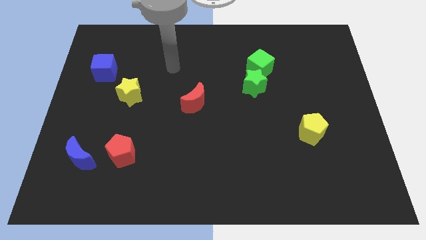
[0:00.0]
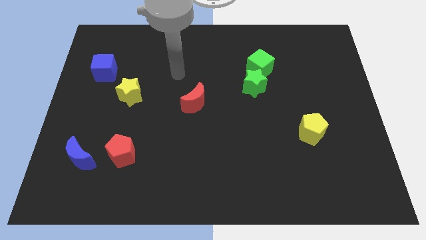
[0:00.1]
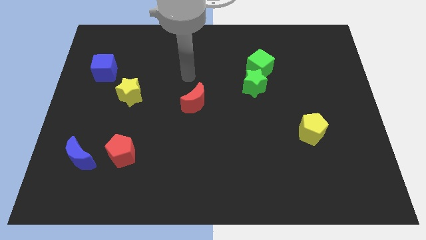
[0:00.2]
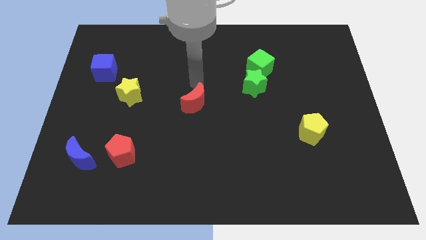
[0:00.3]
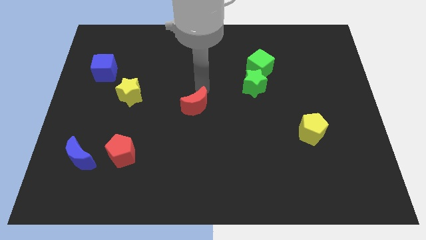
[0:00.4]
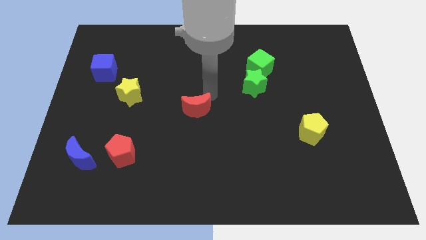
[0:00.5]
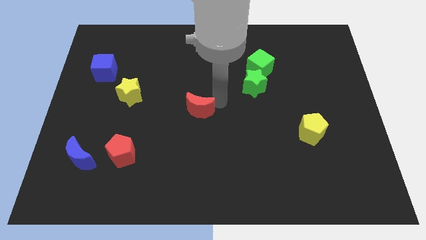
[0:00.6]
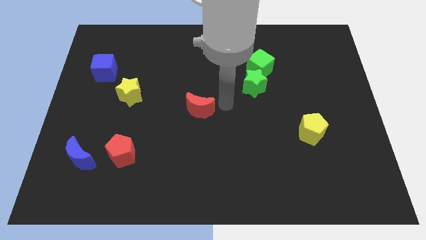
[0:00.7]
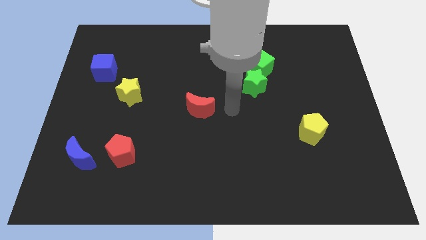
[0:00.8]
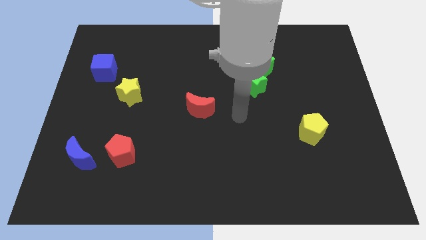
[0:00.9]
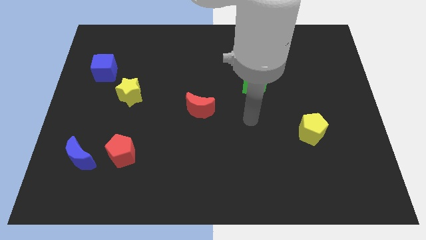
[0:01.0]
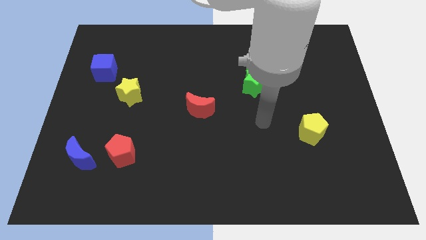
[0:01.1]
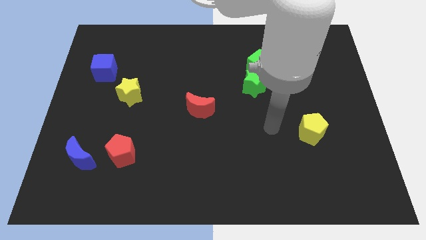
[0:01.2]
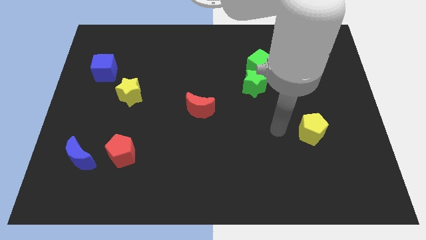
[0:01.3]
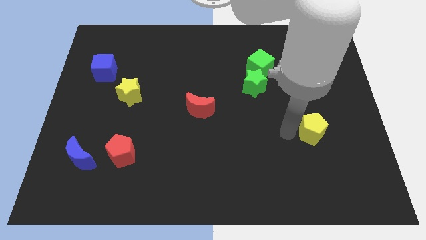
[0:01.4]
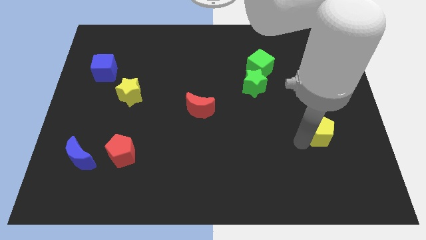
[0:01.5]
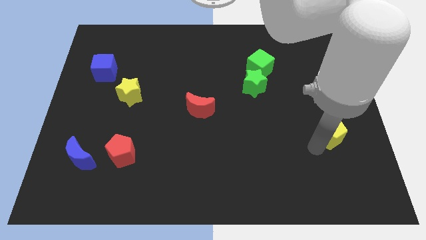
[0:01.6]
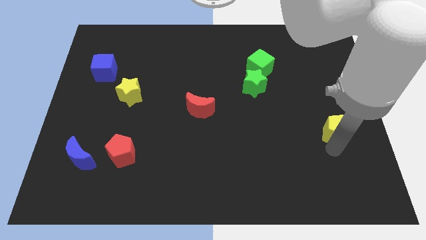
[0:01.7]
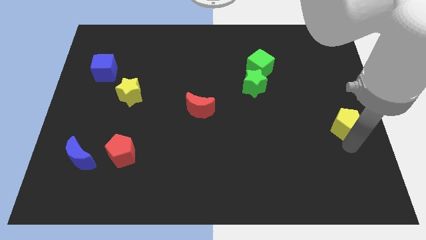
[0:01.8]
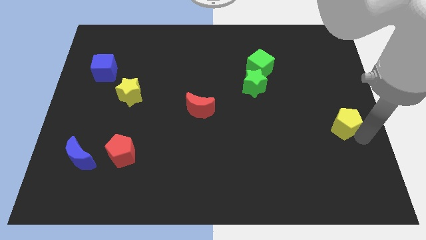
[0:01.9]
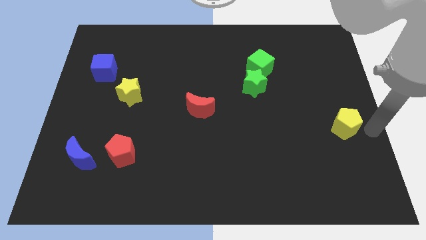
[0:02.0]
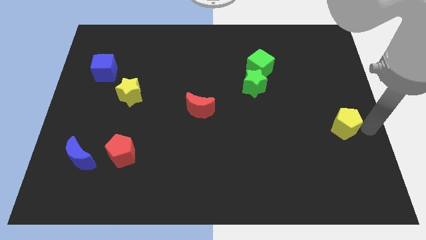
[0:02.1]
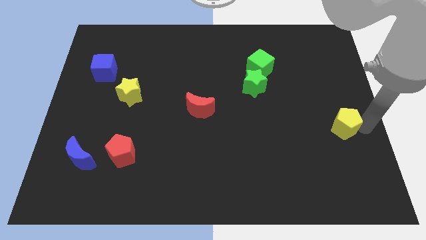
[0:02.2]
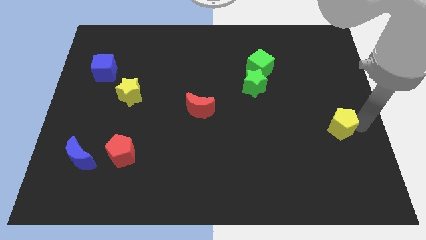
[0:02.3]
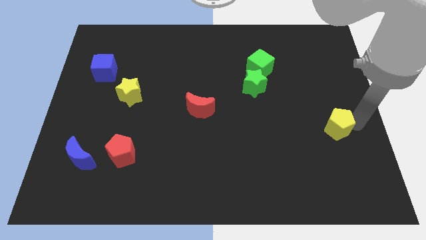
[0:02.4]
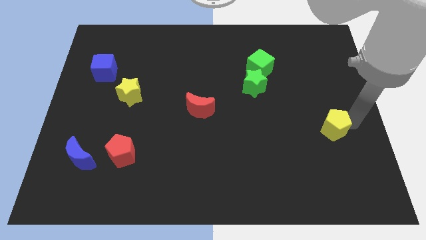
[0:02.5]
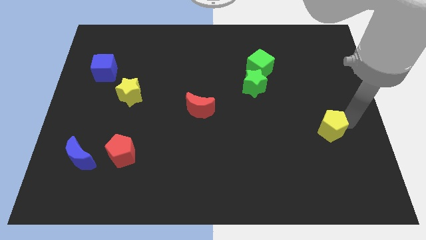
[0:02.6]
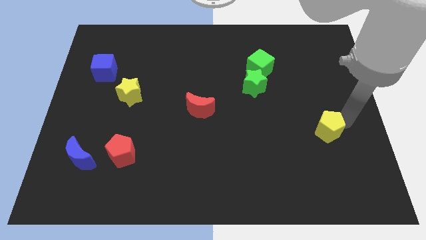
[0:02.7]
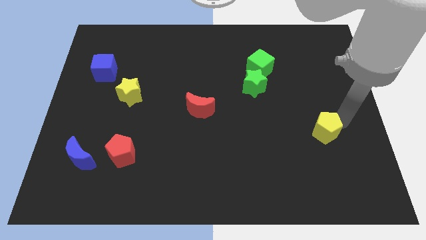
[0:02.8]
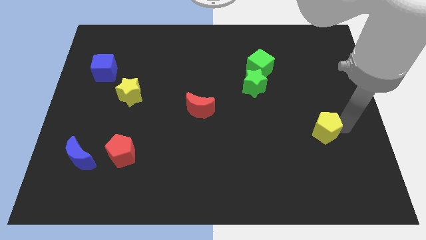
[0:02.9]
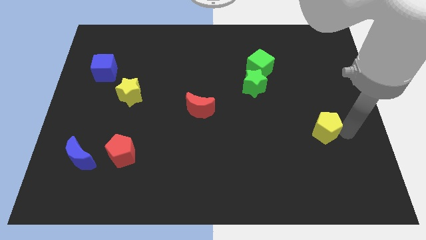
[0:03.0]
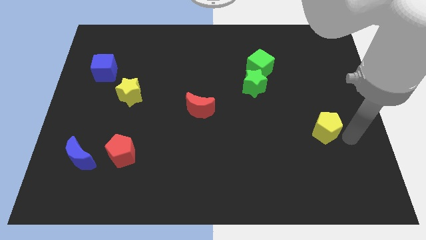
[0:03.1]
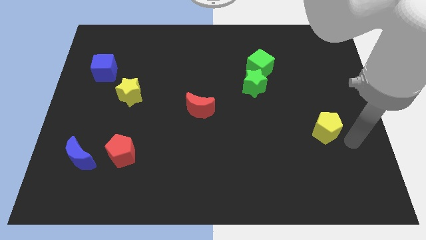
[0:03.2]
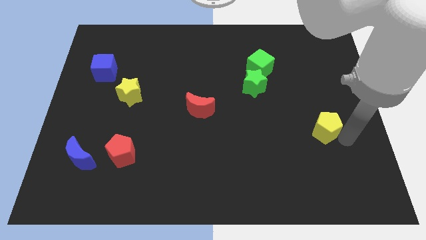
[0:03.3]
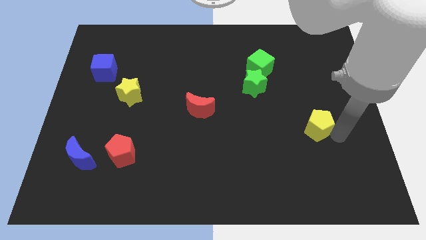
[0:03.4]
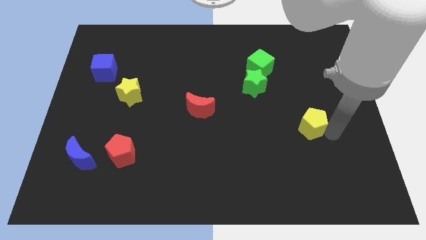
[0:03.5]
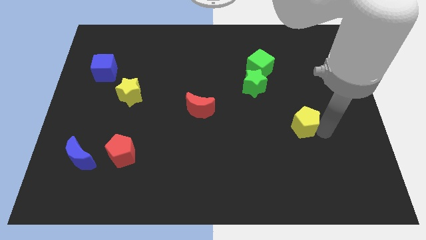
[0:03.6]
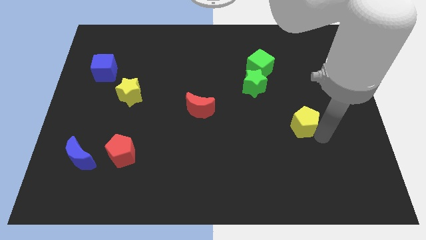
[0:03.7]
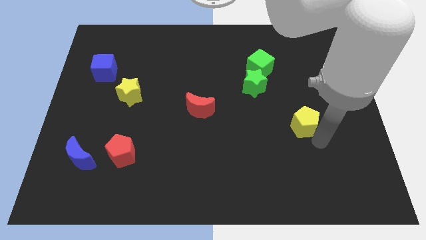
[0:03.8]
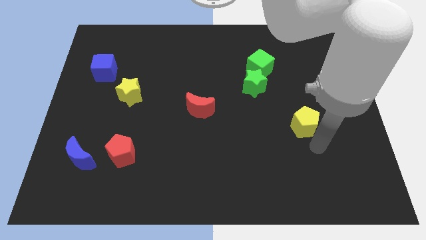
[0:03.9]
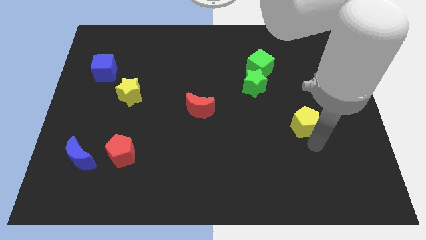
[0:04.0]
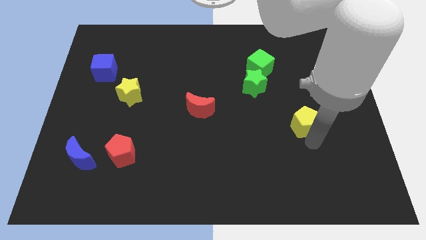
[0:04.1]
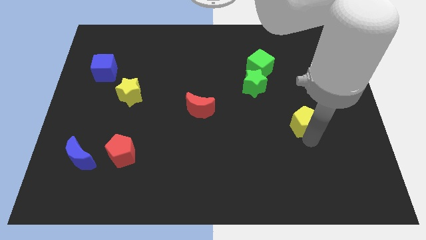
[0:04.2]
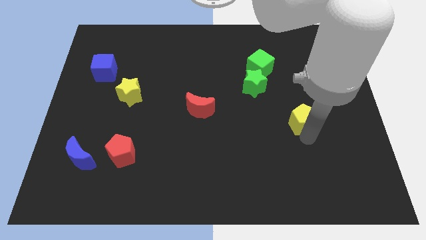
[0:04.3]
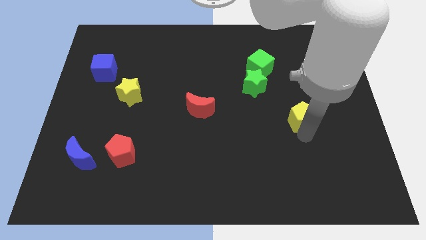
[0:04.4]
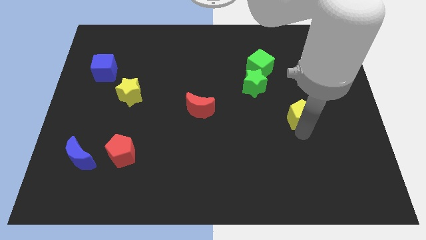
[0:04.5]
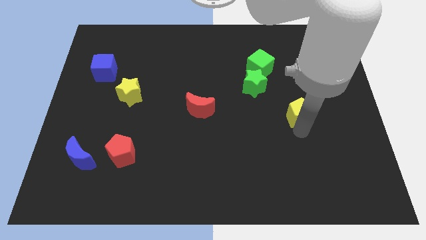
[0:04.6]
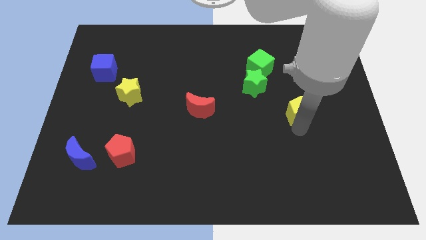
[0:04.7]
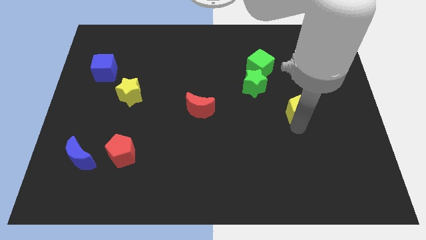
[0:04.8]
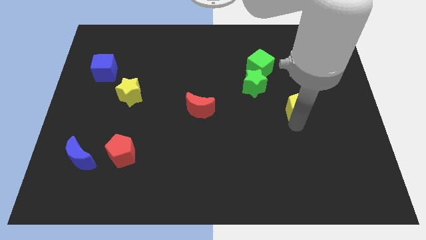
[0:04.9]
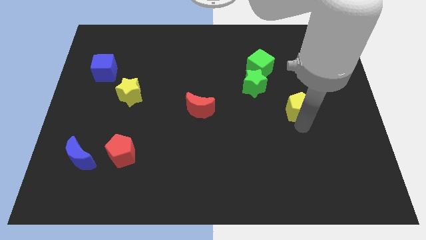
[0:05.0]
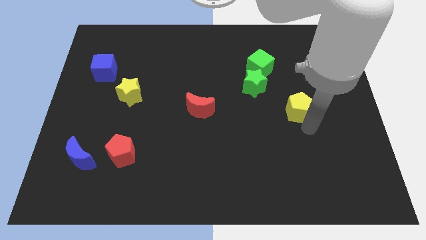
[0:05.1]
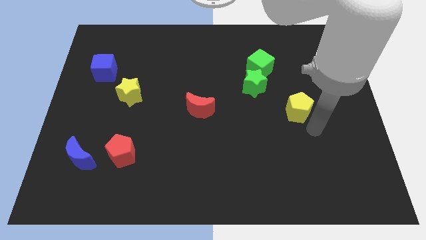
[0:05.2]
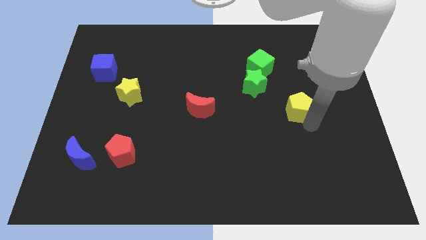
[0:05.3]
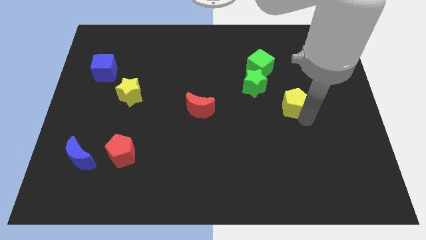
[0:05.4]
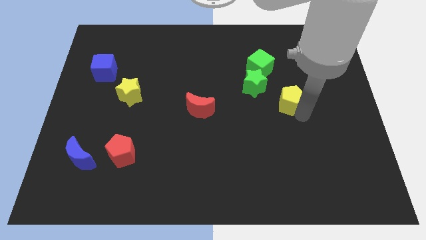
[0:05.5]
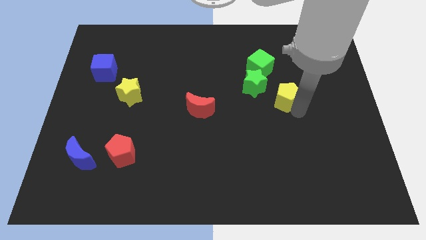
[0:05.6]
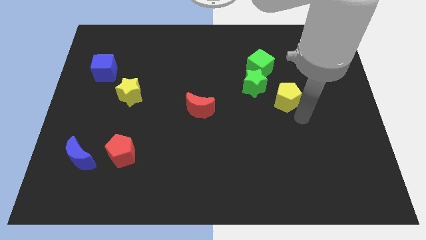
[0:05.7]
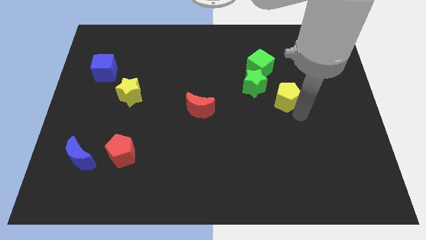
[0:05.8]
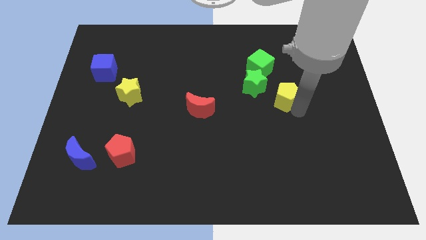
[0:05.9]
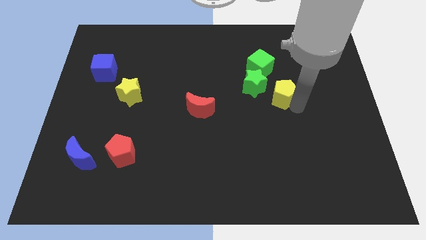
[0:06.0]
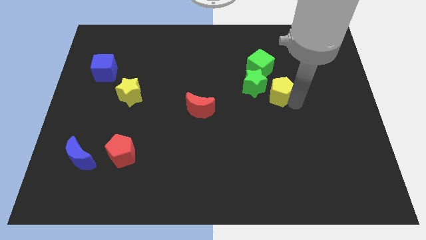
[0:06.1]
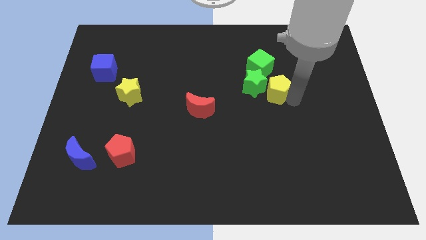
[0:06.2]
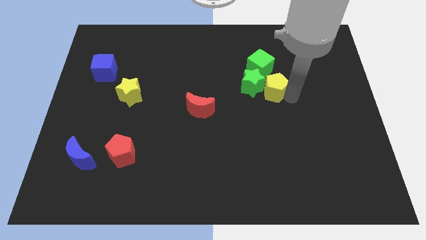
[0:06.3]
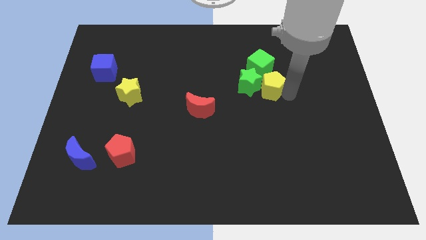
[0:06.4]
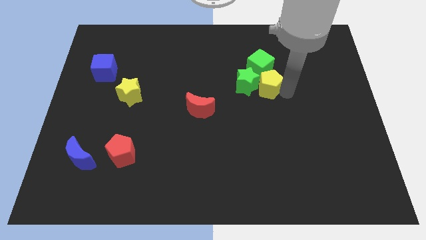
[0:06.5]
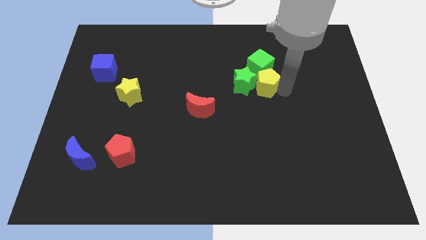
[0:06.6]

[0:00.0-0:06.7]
put the yellow pentagon to the green cube

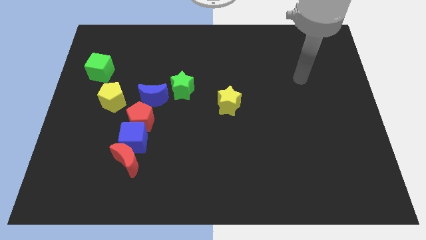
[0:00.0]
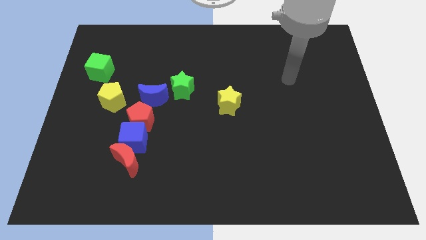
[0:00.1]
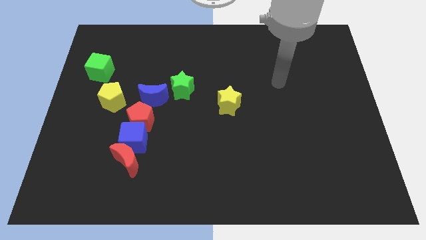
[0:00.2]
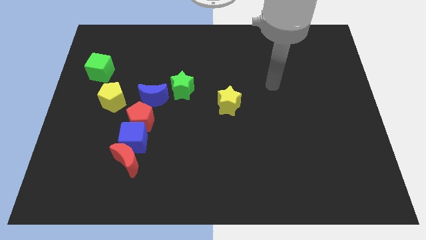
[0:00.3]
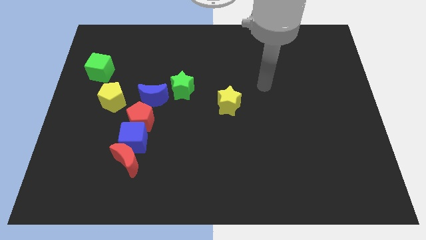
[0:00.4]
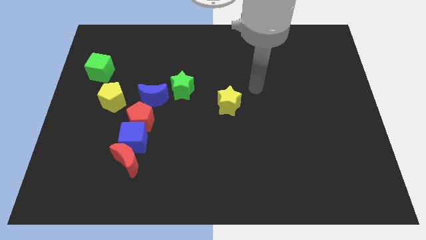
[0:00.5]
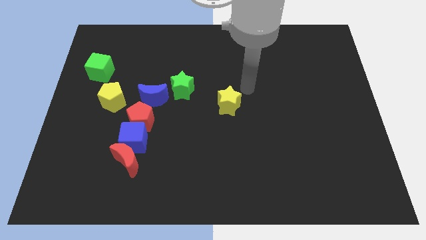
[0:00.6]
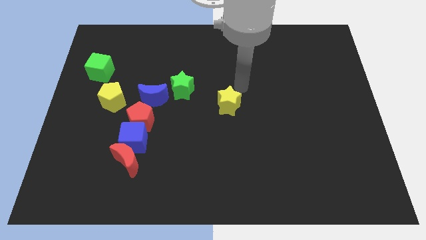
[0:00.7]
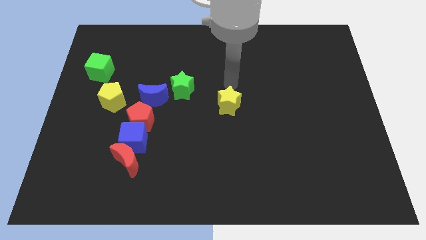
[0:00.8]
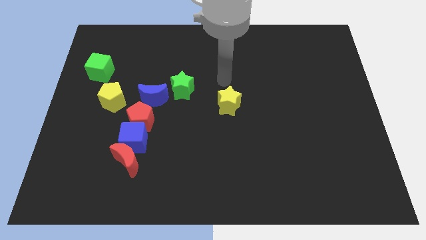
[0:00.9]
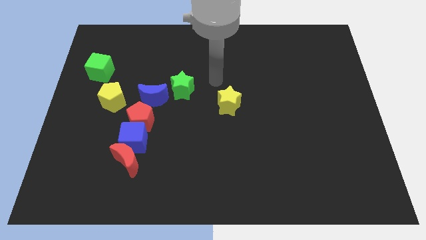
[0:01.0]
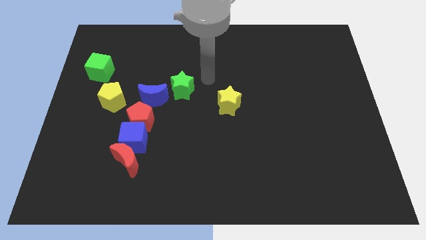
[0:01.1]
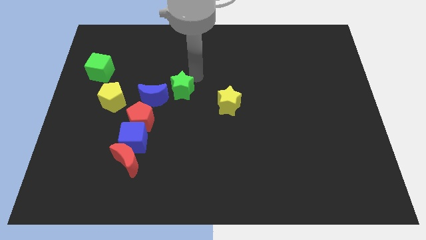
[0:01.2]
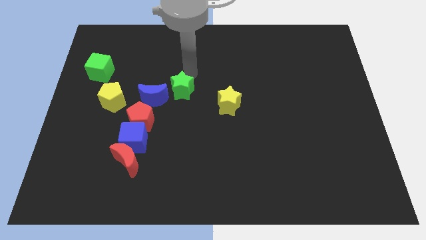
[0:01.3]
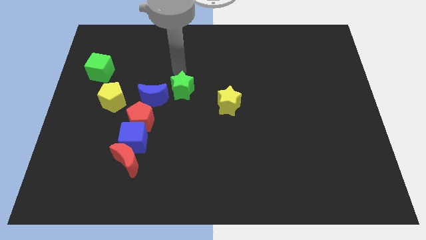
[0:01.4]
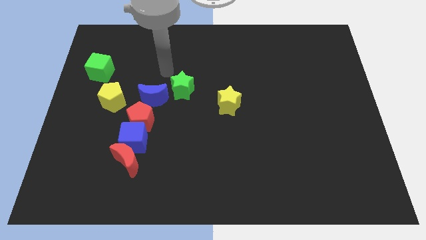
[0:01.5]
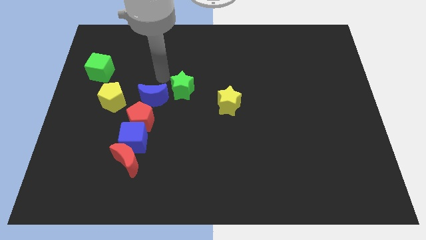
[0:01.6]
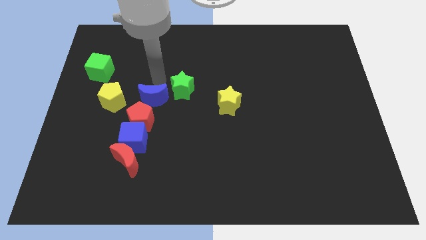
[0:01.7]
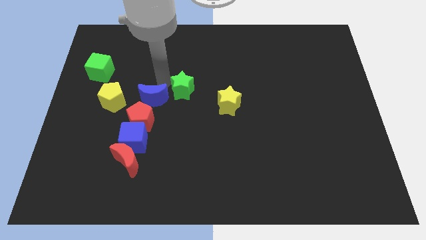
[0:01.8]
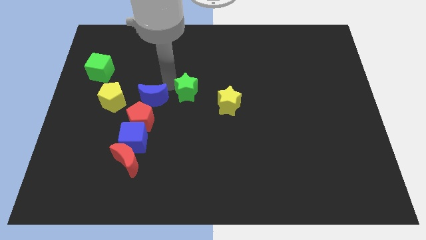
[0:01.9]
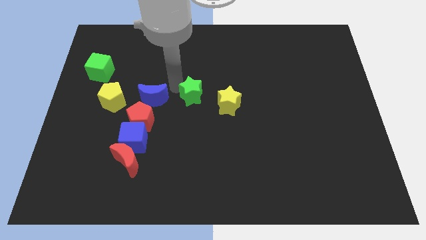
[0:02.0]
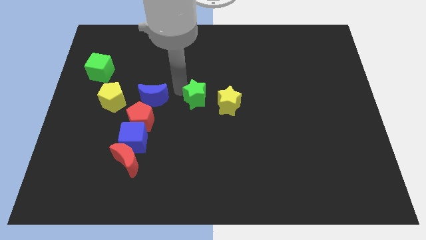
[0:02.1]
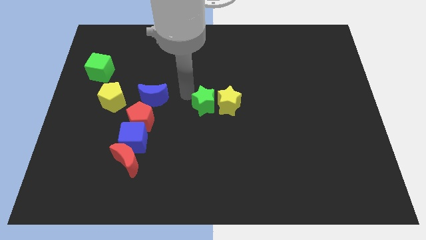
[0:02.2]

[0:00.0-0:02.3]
put the green star towards the yellow star
